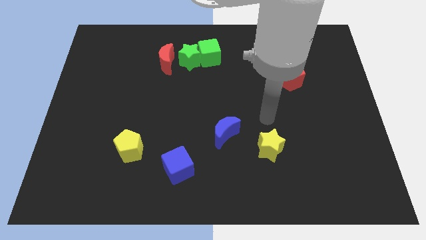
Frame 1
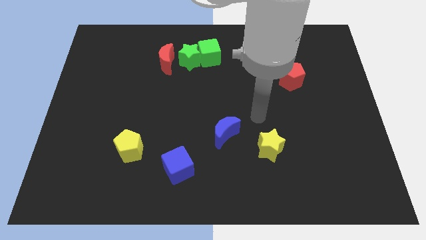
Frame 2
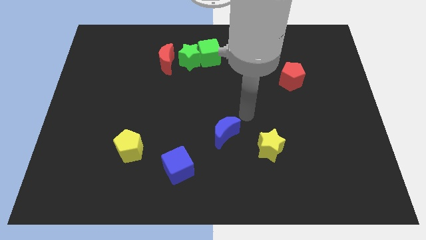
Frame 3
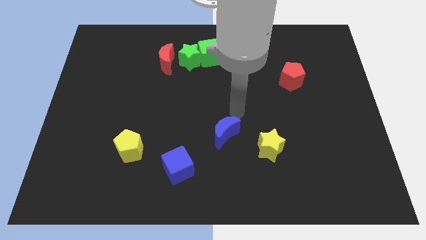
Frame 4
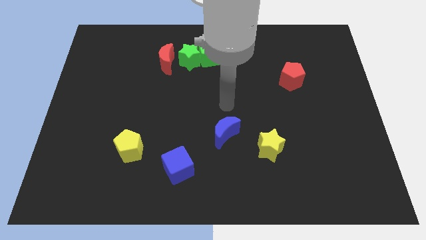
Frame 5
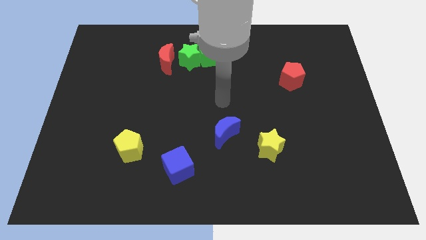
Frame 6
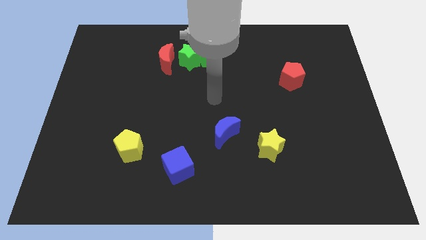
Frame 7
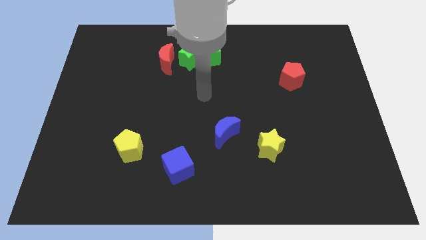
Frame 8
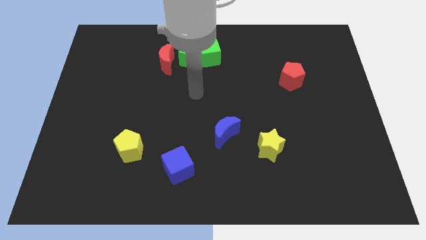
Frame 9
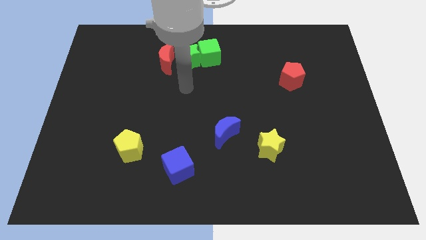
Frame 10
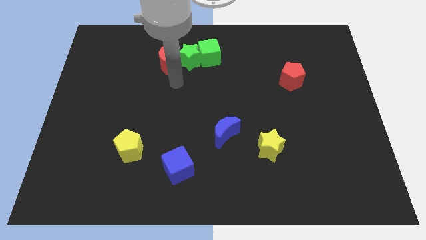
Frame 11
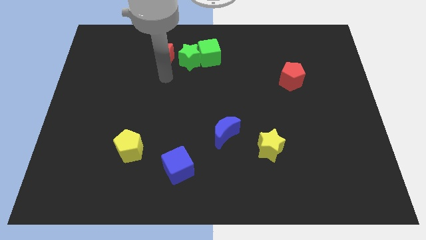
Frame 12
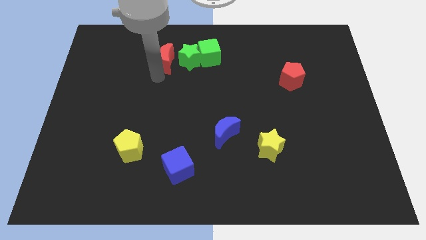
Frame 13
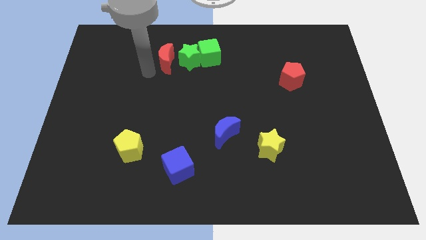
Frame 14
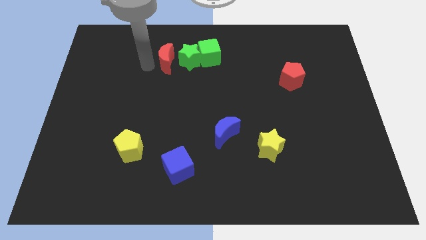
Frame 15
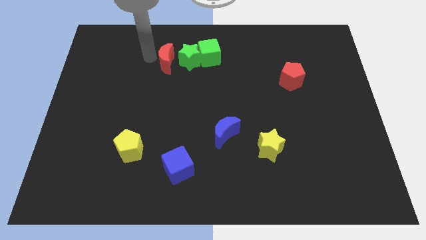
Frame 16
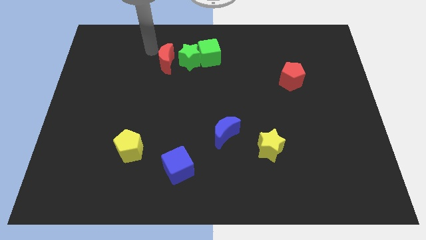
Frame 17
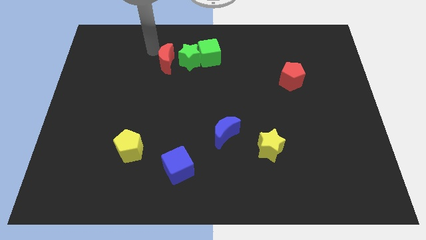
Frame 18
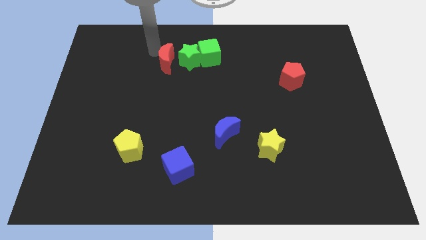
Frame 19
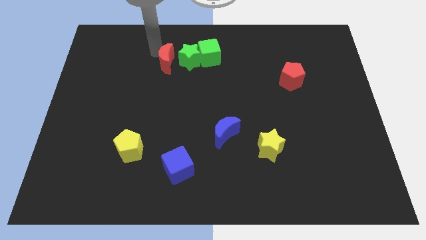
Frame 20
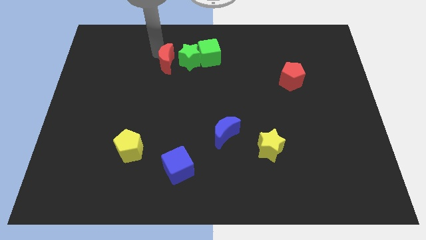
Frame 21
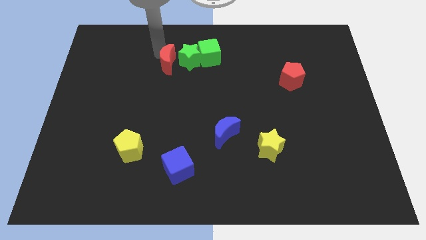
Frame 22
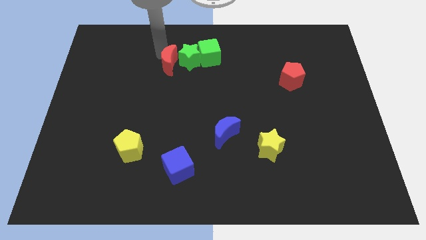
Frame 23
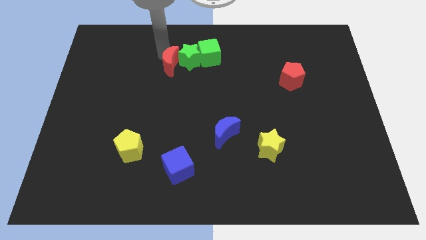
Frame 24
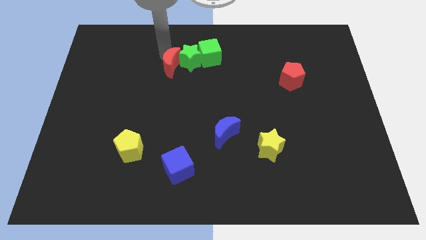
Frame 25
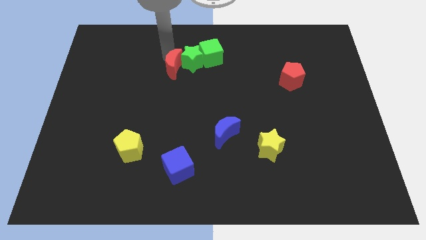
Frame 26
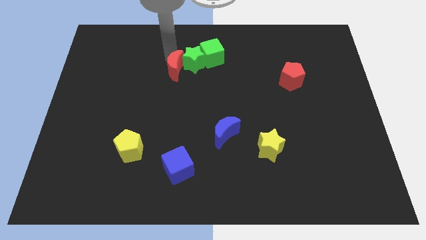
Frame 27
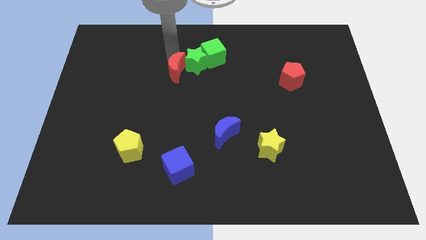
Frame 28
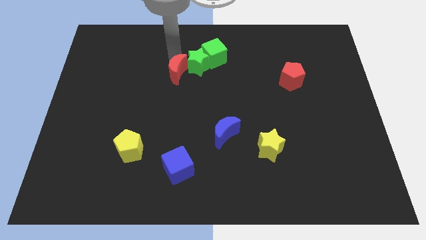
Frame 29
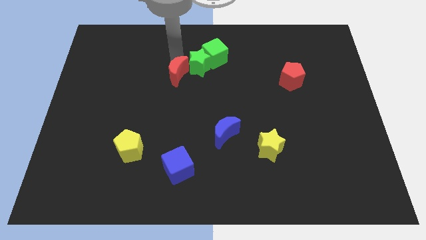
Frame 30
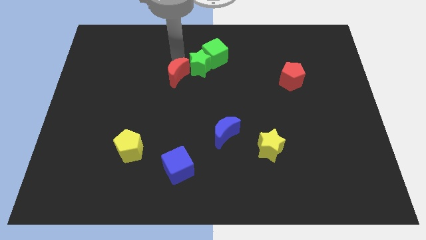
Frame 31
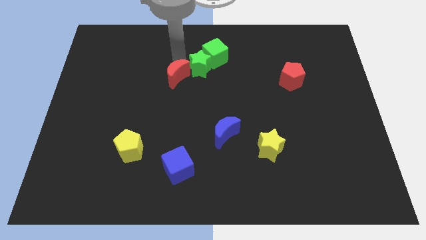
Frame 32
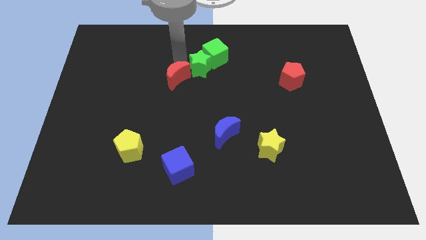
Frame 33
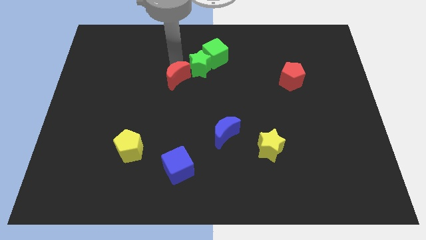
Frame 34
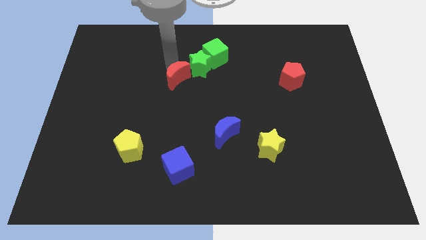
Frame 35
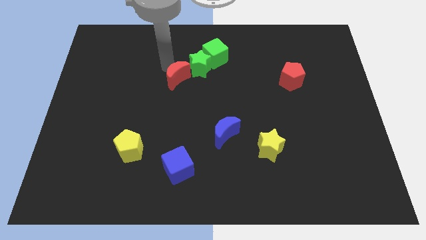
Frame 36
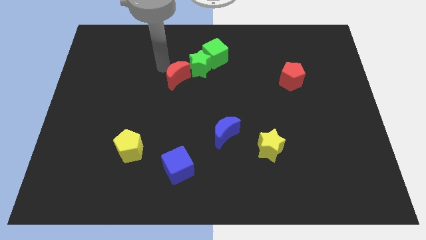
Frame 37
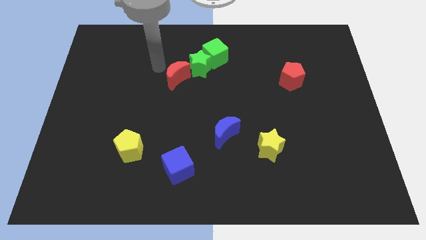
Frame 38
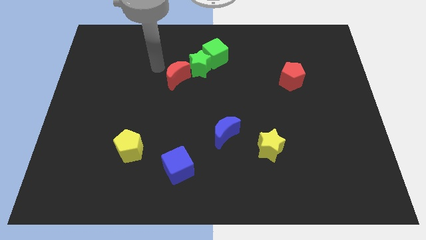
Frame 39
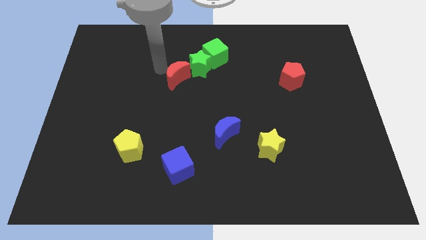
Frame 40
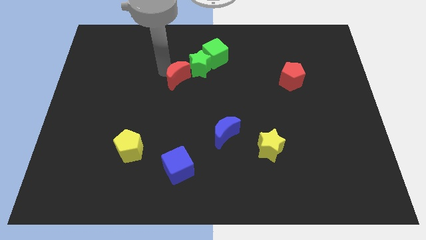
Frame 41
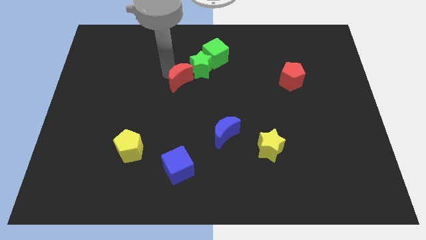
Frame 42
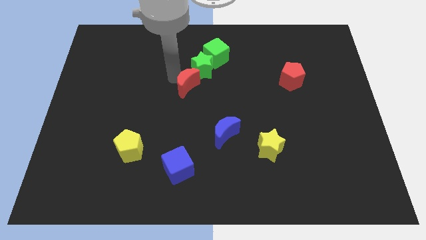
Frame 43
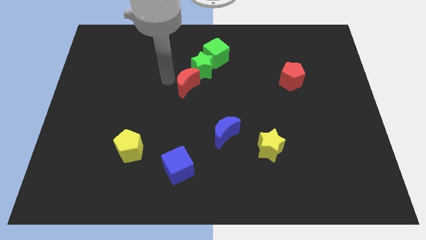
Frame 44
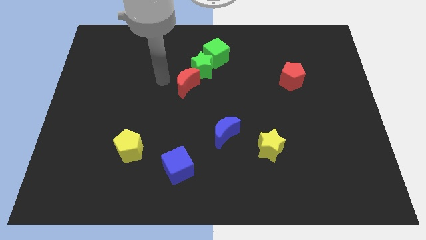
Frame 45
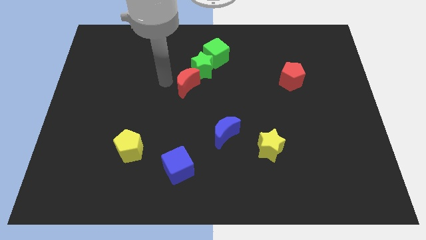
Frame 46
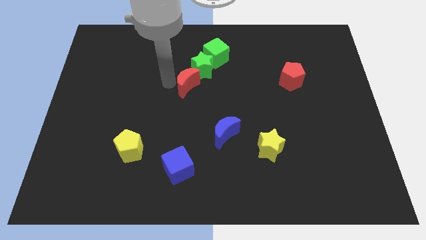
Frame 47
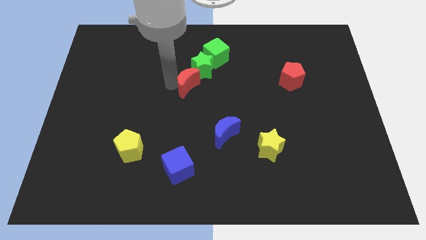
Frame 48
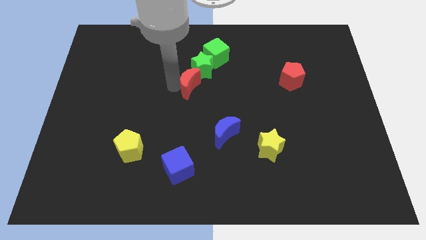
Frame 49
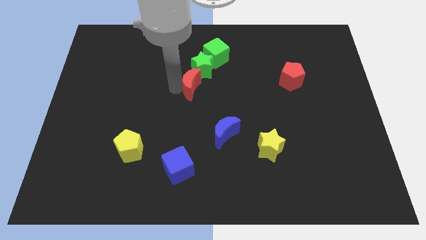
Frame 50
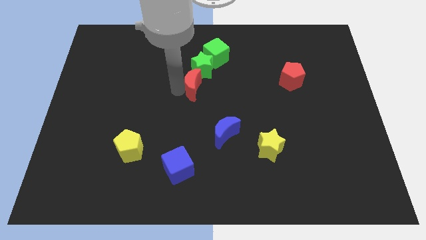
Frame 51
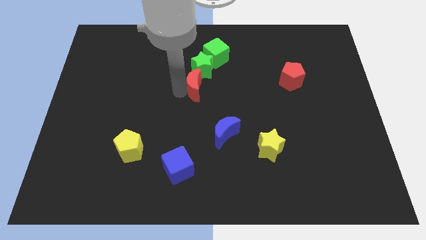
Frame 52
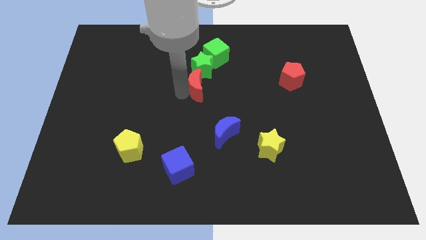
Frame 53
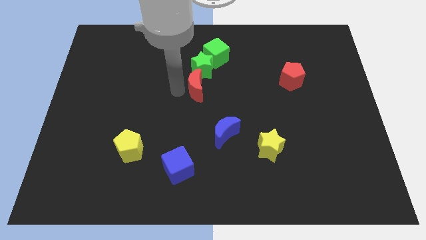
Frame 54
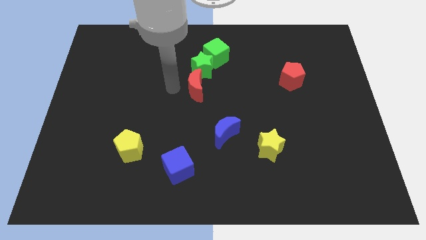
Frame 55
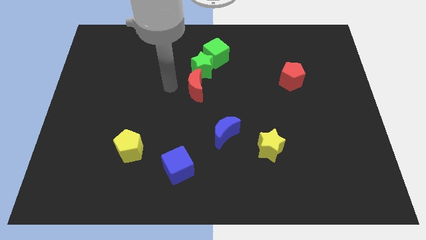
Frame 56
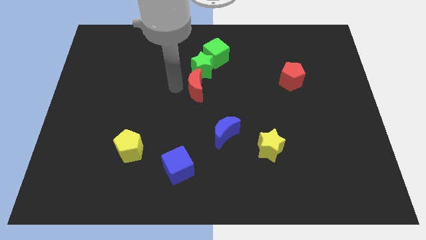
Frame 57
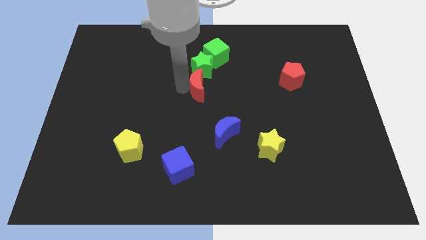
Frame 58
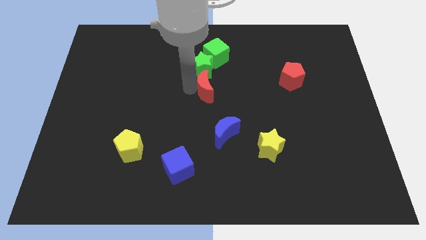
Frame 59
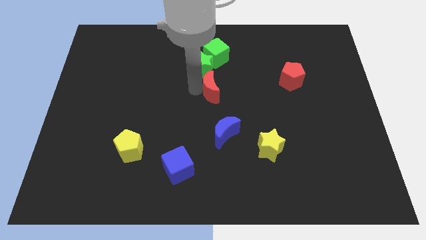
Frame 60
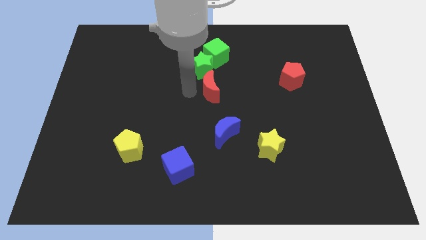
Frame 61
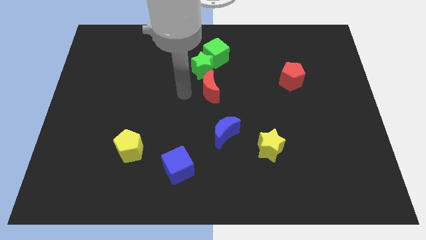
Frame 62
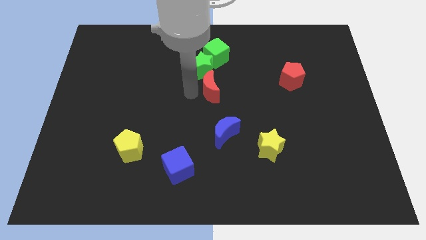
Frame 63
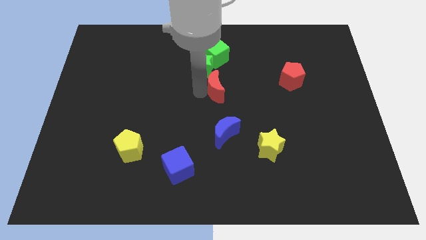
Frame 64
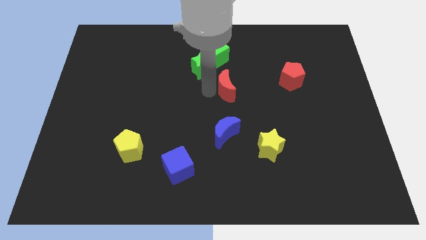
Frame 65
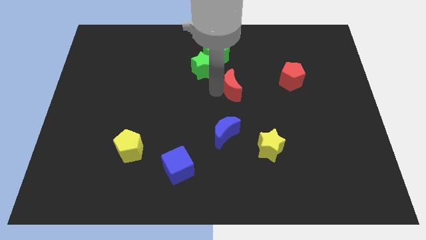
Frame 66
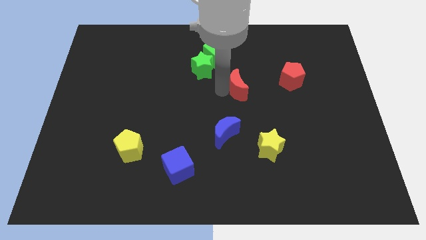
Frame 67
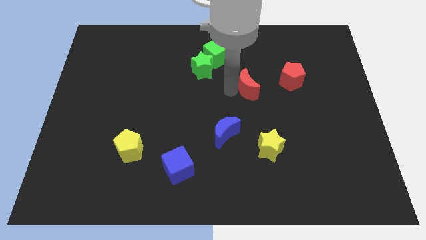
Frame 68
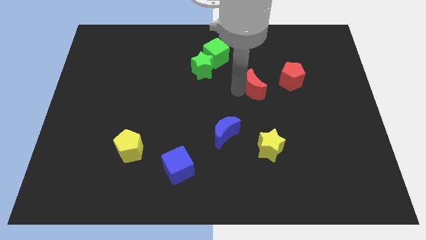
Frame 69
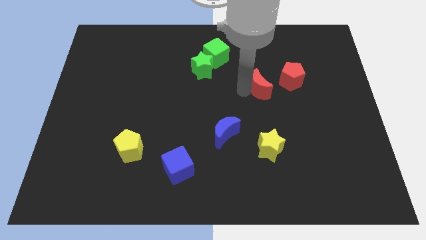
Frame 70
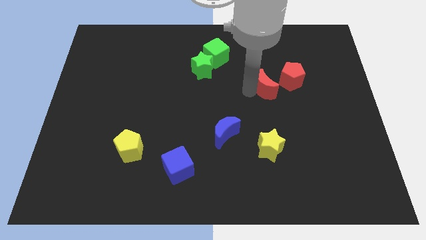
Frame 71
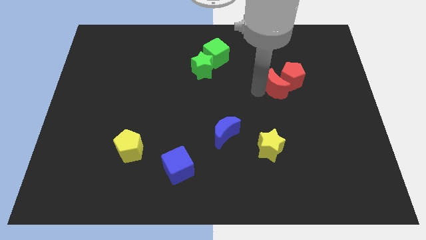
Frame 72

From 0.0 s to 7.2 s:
push the red moon close to the red pentagon
